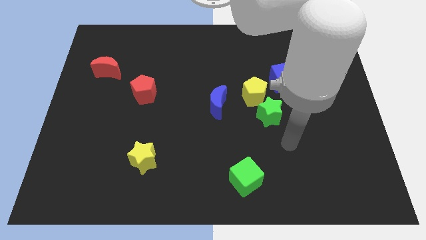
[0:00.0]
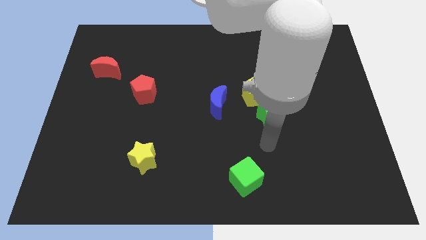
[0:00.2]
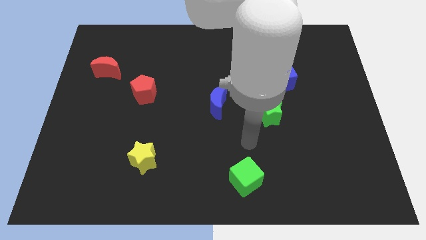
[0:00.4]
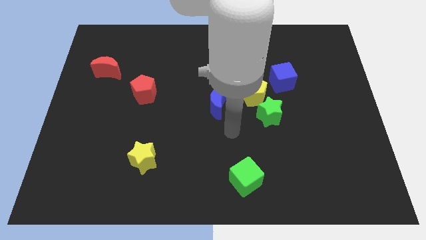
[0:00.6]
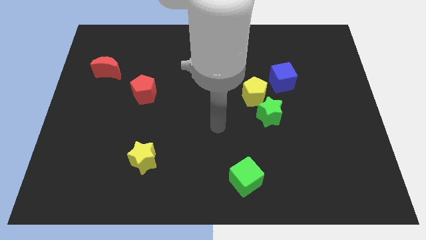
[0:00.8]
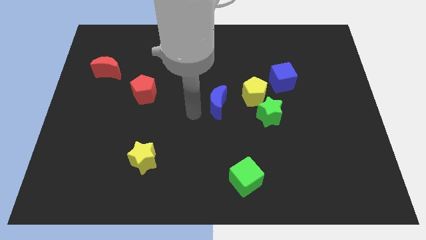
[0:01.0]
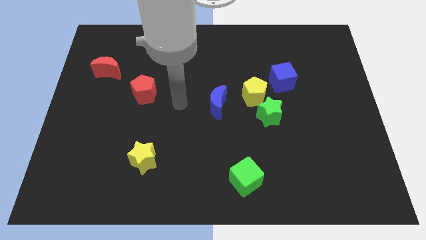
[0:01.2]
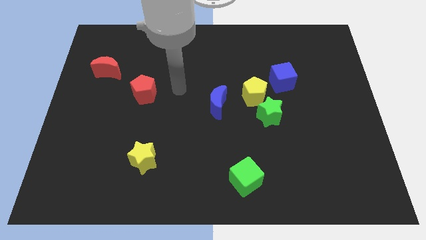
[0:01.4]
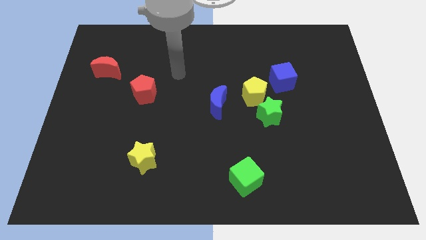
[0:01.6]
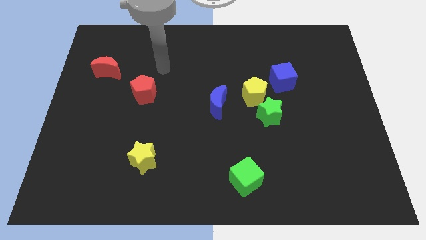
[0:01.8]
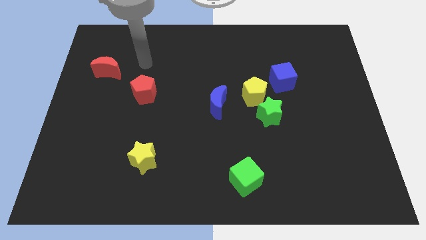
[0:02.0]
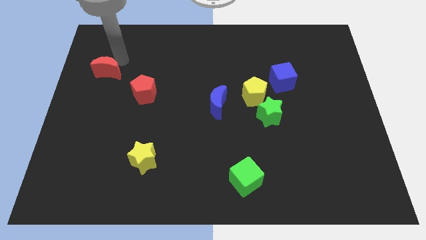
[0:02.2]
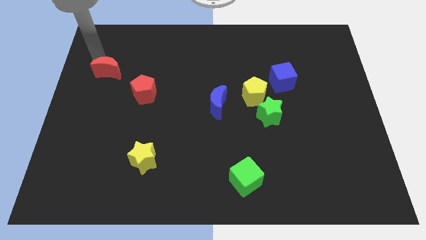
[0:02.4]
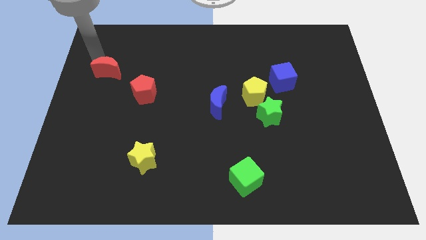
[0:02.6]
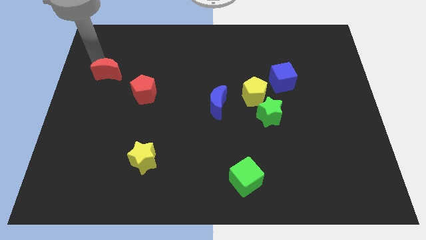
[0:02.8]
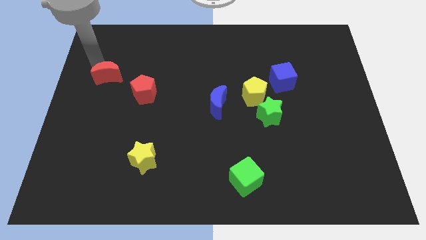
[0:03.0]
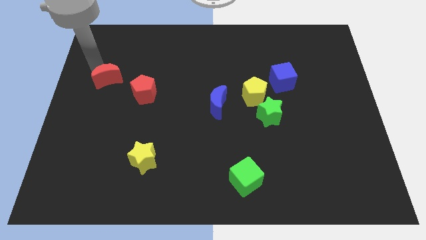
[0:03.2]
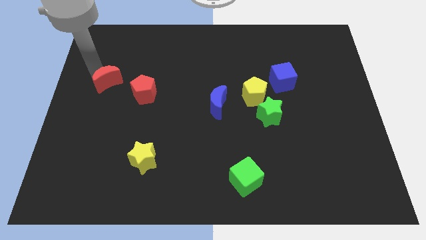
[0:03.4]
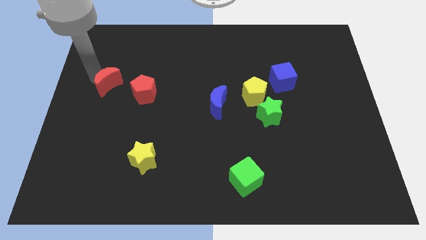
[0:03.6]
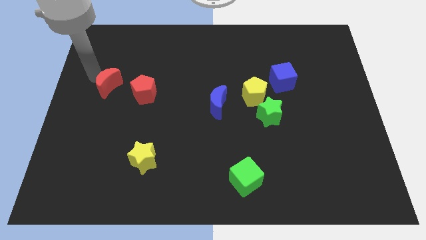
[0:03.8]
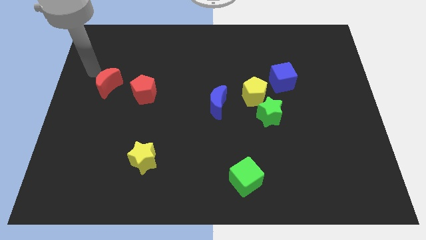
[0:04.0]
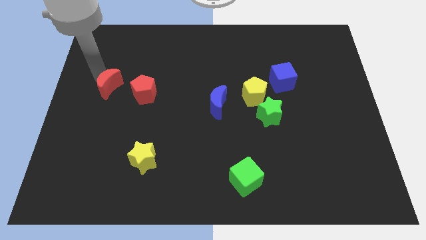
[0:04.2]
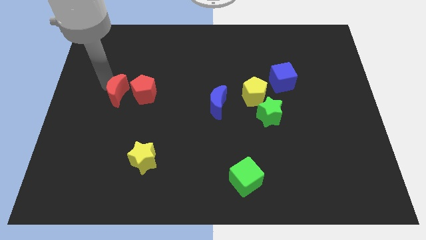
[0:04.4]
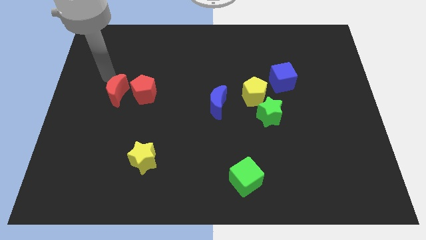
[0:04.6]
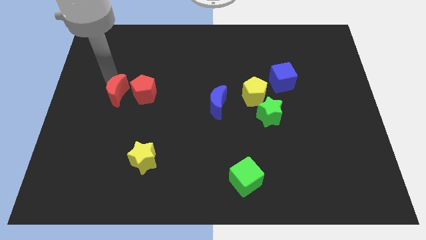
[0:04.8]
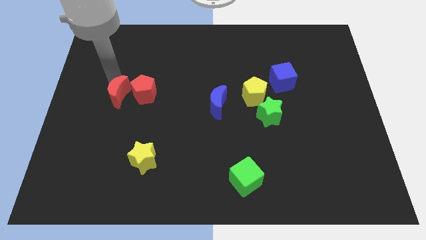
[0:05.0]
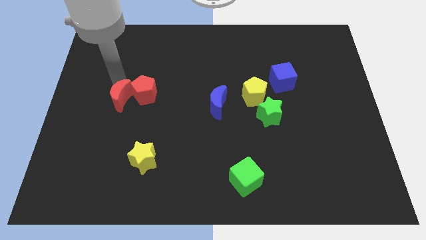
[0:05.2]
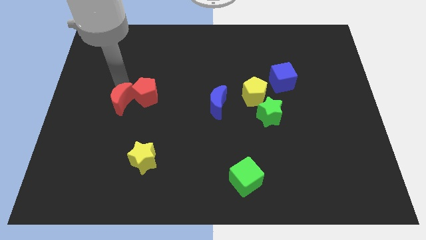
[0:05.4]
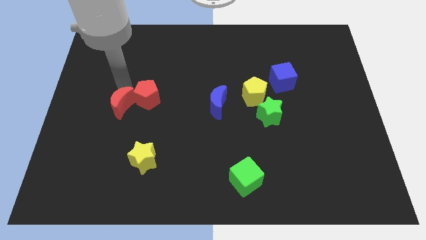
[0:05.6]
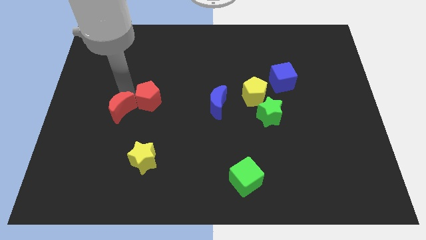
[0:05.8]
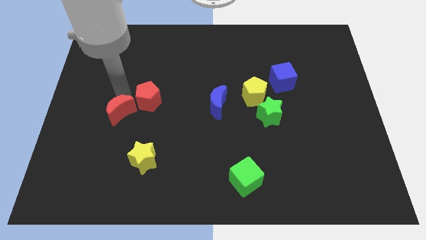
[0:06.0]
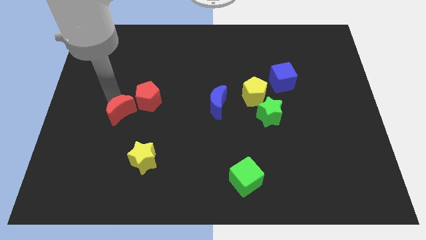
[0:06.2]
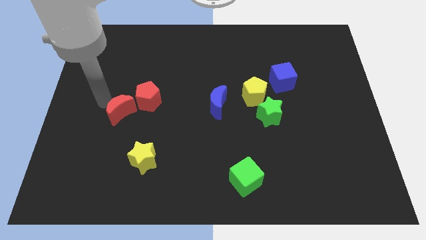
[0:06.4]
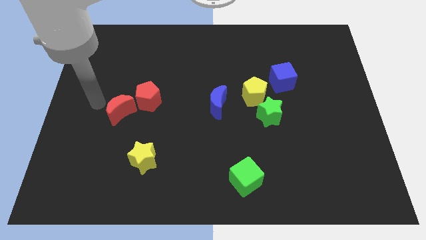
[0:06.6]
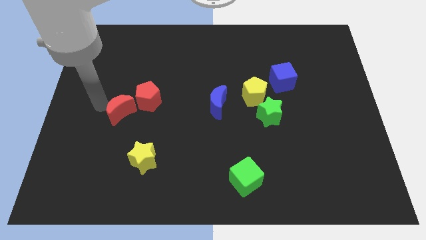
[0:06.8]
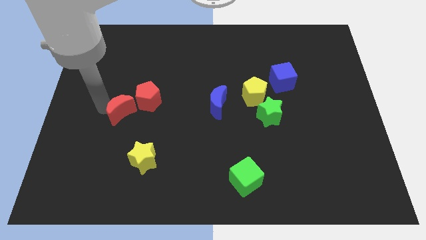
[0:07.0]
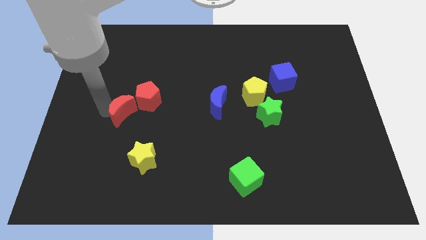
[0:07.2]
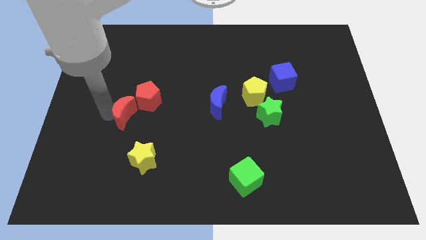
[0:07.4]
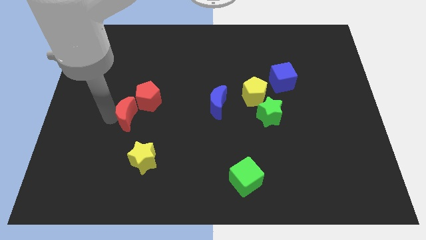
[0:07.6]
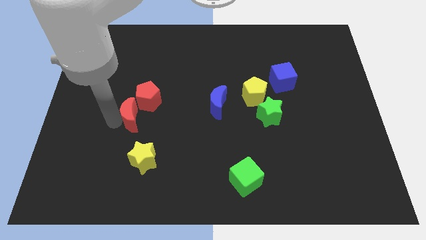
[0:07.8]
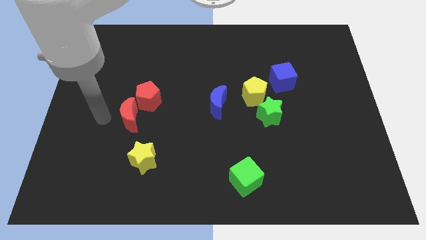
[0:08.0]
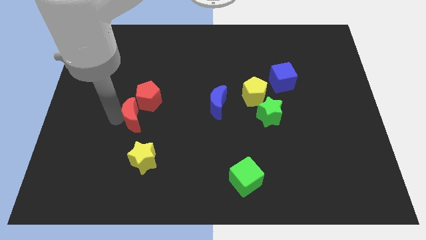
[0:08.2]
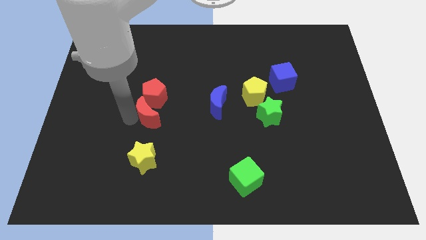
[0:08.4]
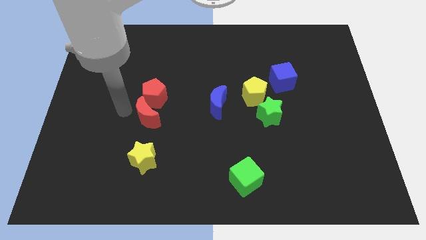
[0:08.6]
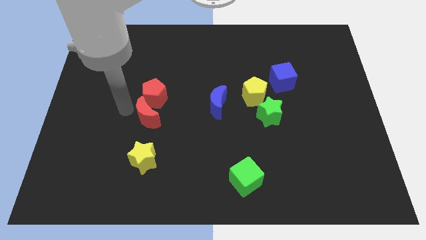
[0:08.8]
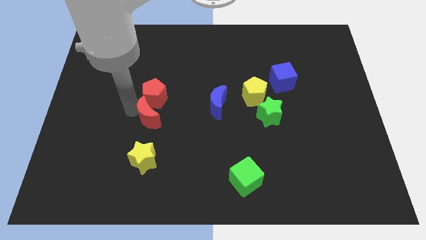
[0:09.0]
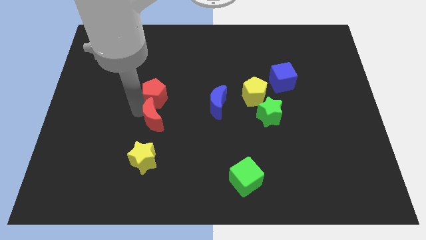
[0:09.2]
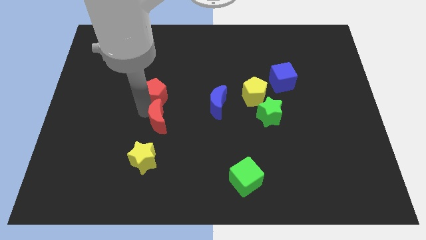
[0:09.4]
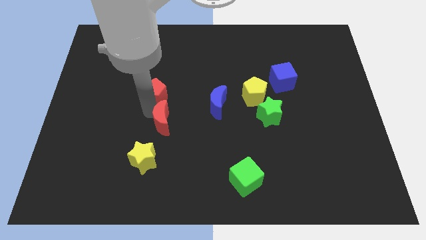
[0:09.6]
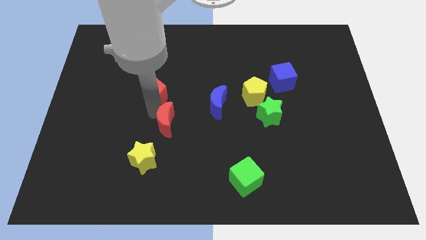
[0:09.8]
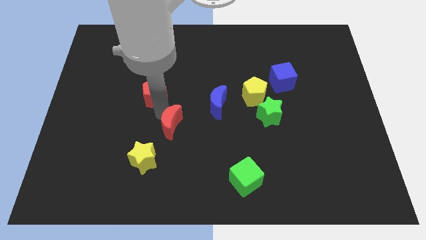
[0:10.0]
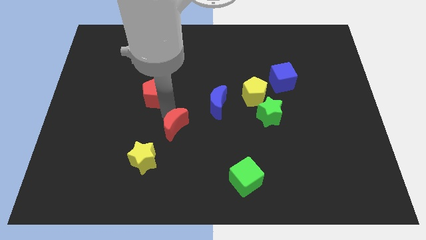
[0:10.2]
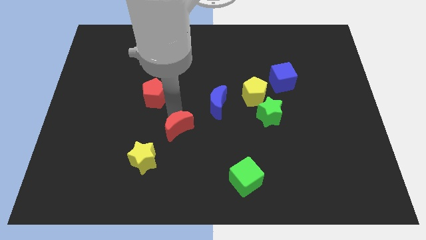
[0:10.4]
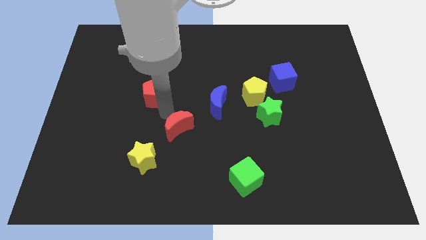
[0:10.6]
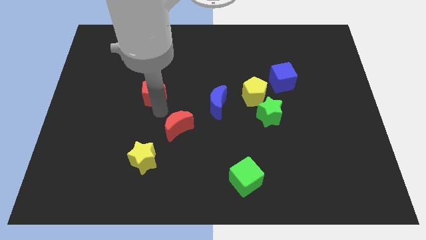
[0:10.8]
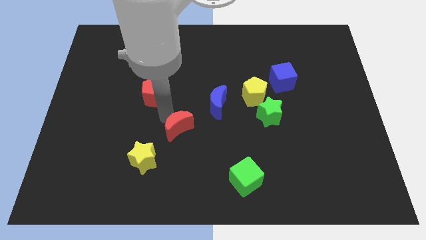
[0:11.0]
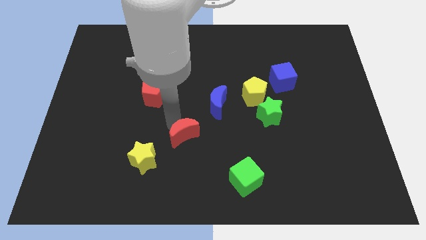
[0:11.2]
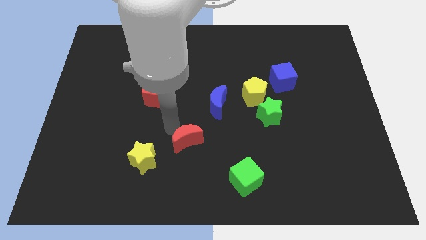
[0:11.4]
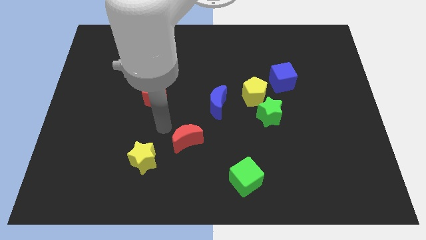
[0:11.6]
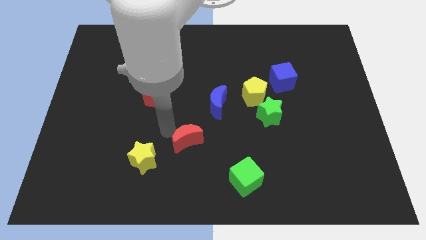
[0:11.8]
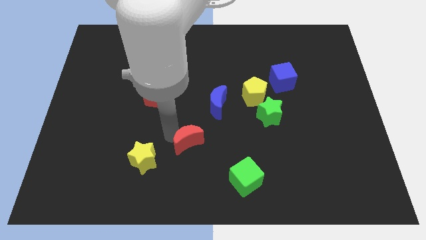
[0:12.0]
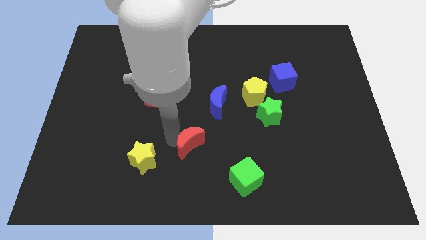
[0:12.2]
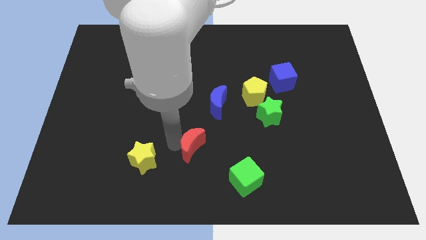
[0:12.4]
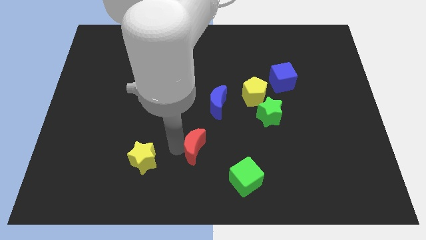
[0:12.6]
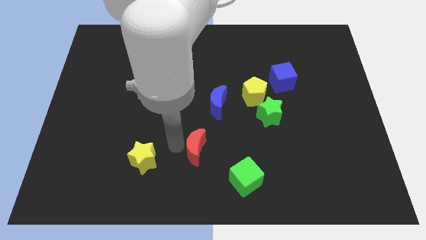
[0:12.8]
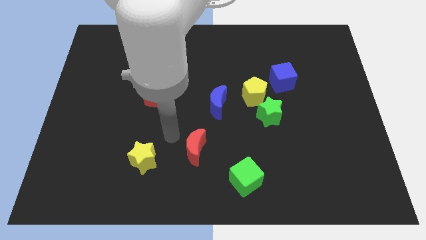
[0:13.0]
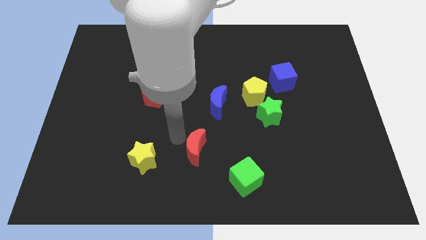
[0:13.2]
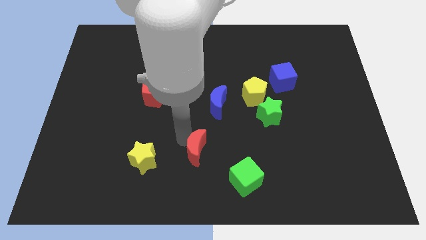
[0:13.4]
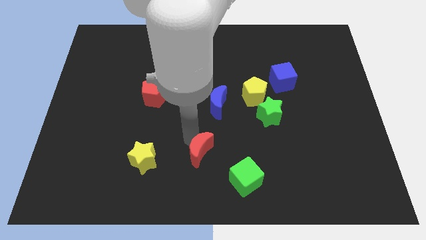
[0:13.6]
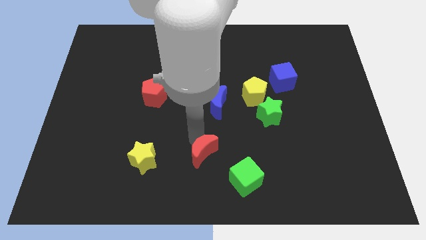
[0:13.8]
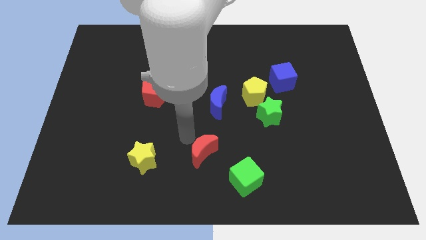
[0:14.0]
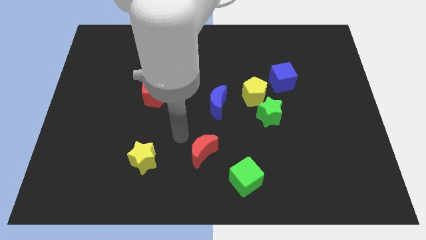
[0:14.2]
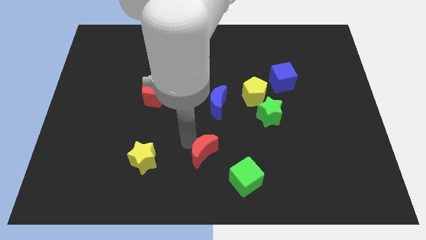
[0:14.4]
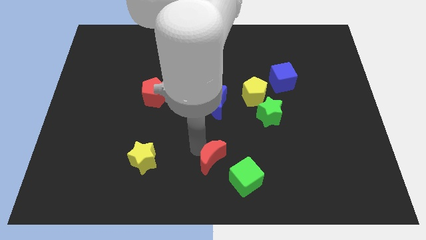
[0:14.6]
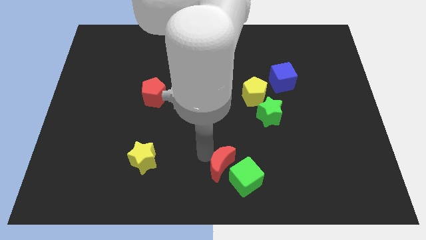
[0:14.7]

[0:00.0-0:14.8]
put the red moon towards the green cube

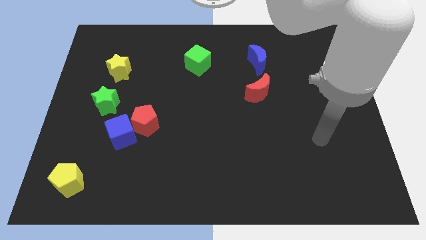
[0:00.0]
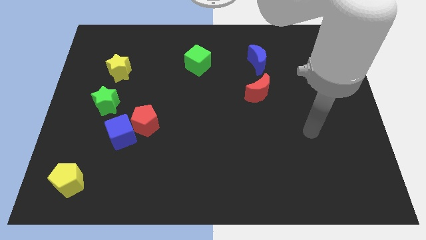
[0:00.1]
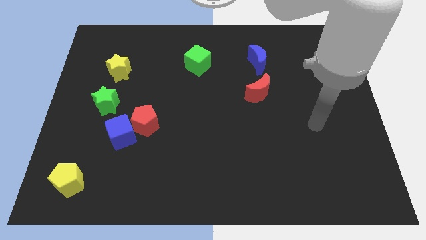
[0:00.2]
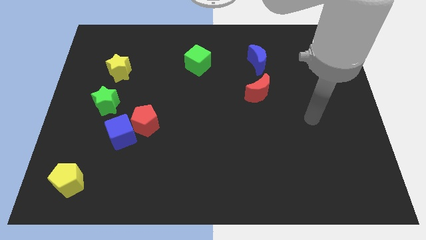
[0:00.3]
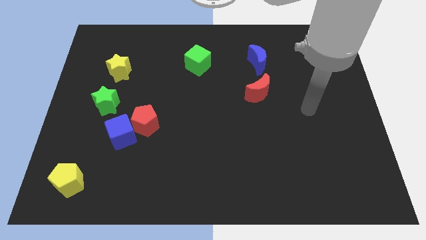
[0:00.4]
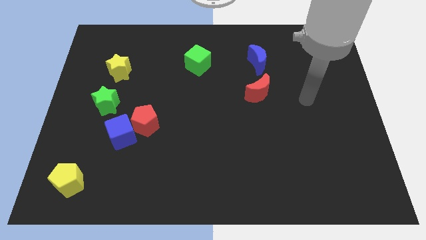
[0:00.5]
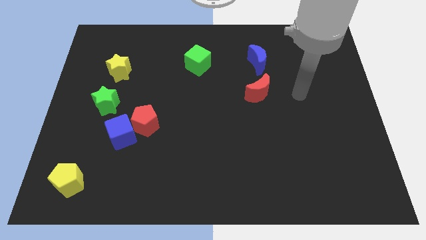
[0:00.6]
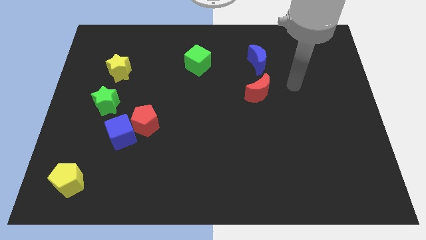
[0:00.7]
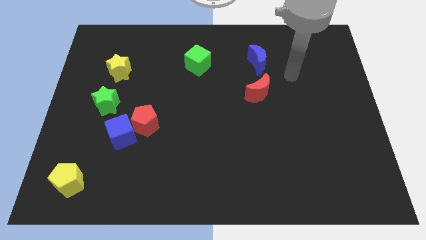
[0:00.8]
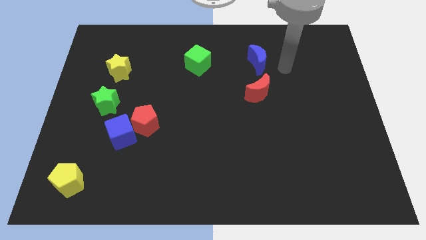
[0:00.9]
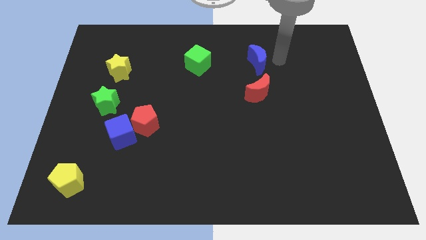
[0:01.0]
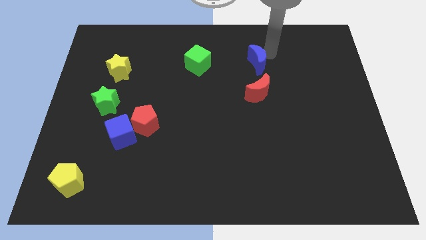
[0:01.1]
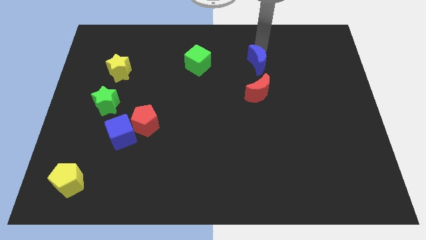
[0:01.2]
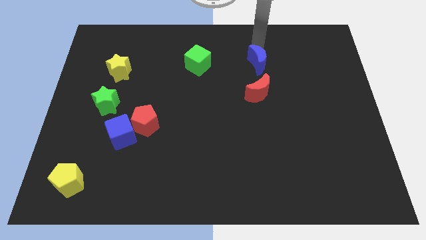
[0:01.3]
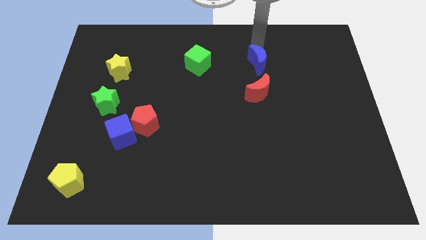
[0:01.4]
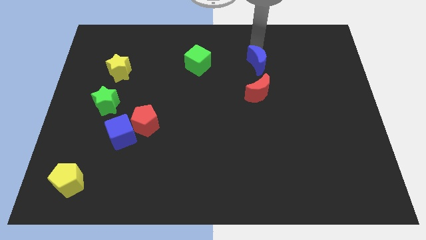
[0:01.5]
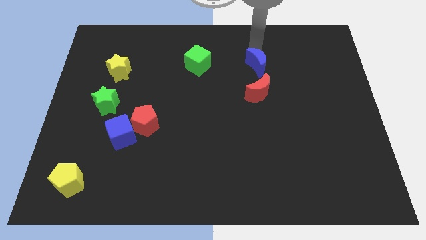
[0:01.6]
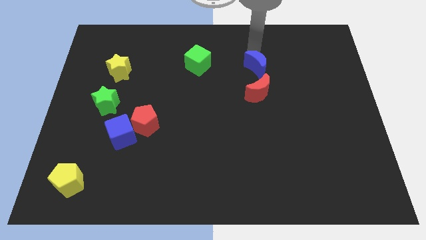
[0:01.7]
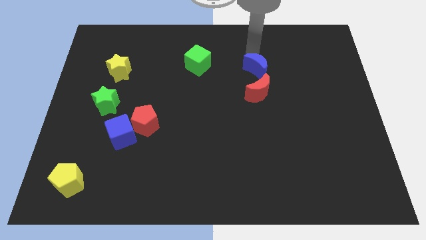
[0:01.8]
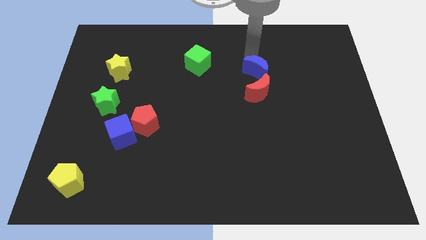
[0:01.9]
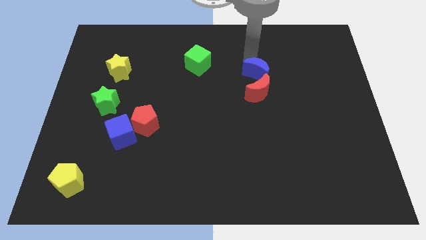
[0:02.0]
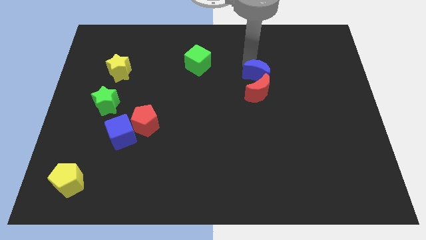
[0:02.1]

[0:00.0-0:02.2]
move the blue moon to the red moon
